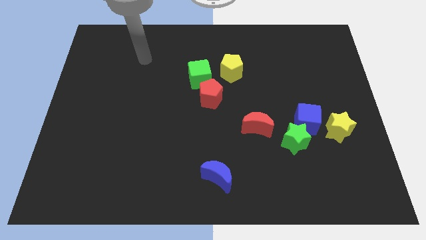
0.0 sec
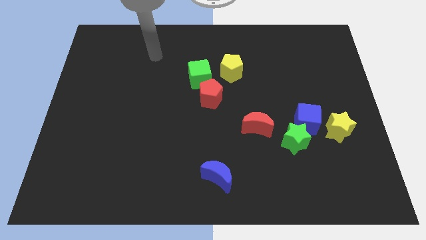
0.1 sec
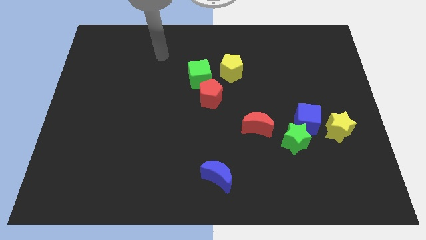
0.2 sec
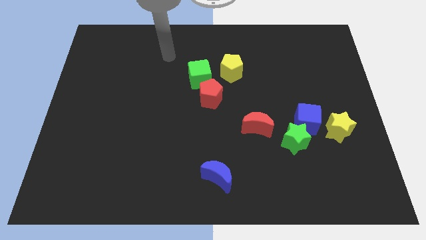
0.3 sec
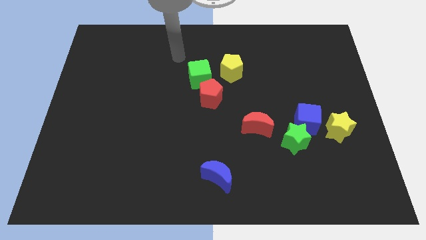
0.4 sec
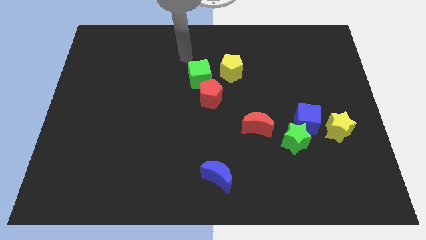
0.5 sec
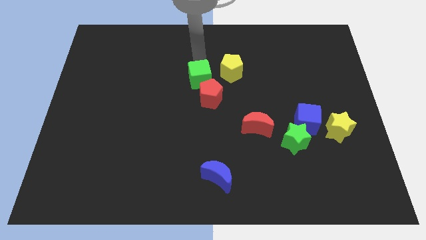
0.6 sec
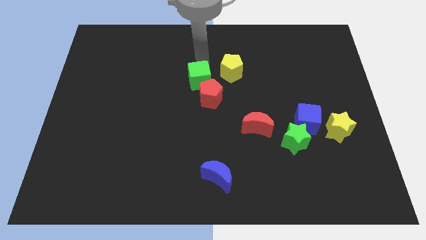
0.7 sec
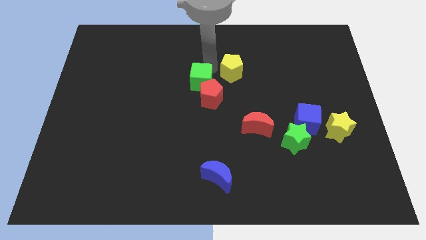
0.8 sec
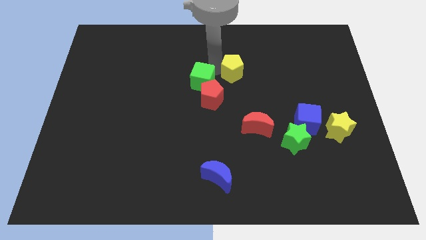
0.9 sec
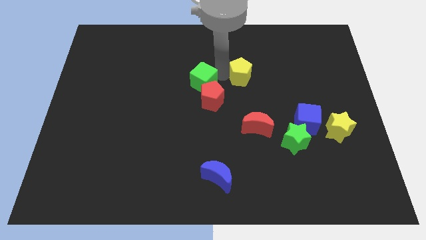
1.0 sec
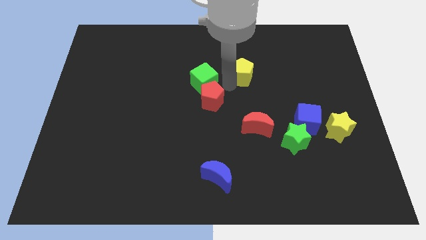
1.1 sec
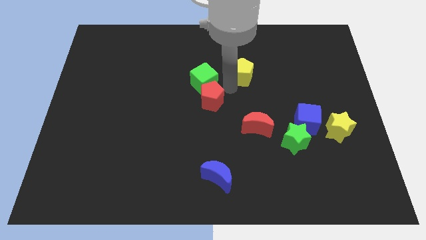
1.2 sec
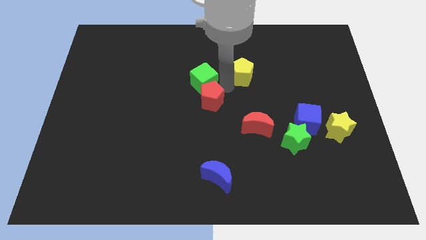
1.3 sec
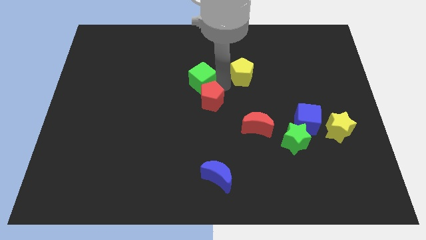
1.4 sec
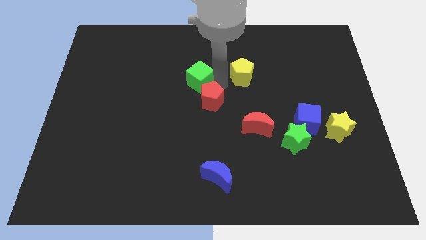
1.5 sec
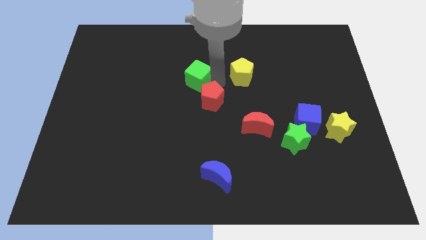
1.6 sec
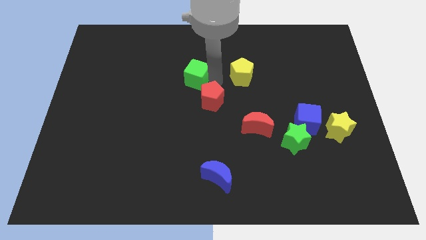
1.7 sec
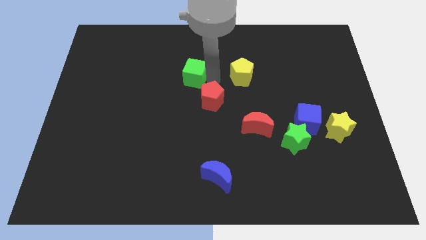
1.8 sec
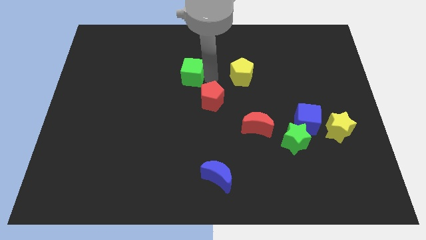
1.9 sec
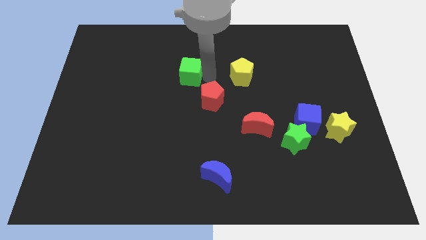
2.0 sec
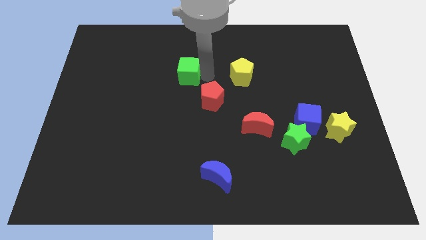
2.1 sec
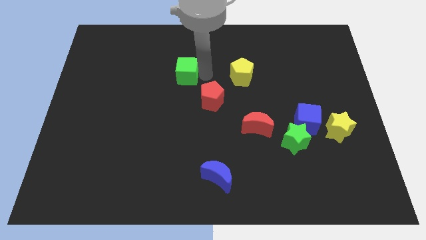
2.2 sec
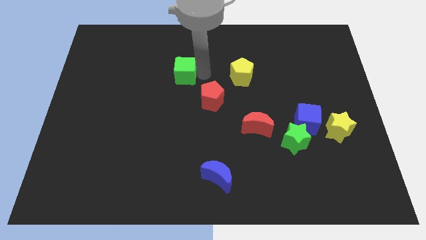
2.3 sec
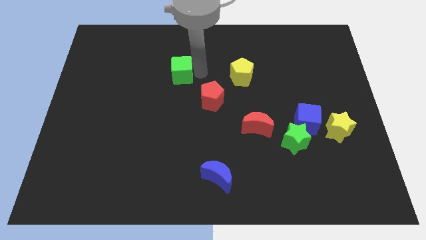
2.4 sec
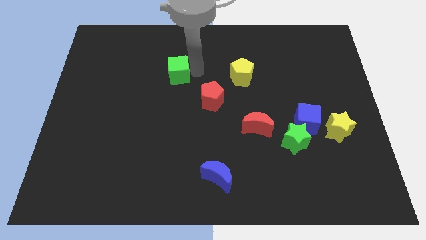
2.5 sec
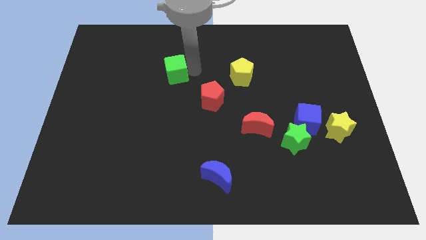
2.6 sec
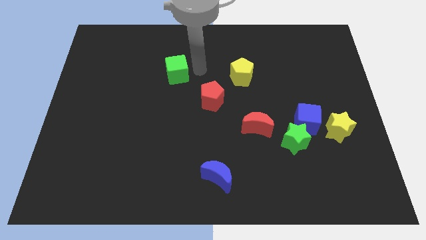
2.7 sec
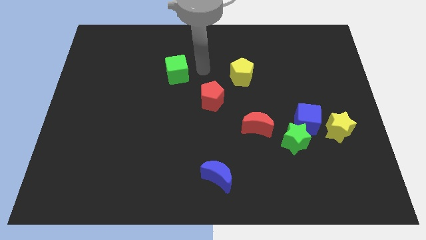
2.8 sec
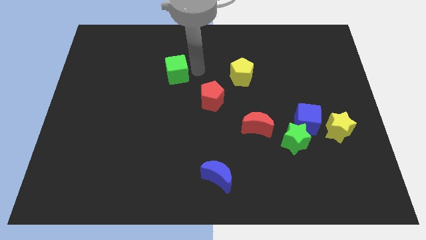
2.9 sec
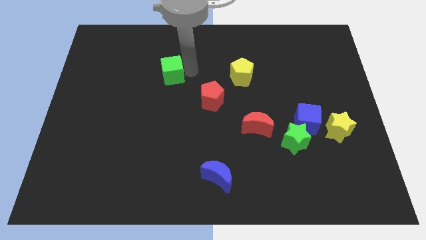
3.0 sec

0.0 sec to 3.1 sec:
push the green cube somewhat to the left

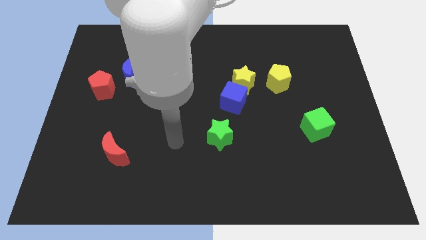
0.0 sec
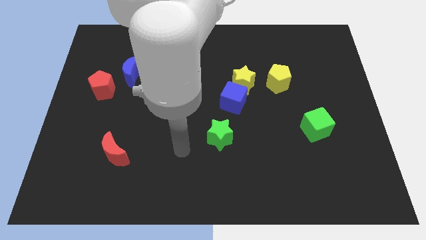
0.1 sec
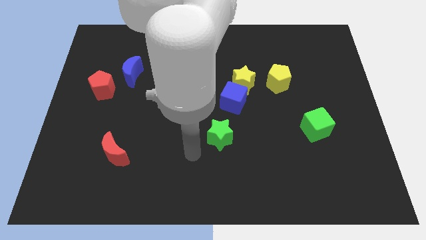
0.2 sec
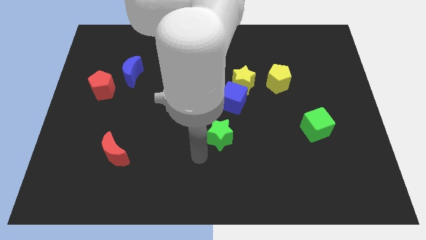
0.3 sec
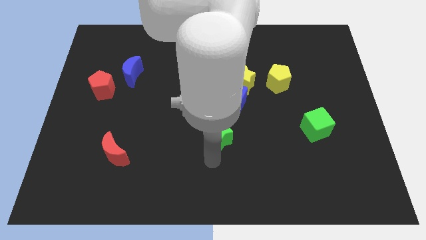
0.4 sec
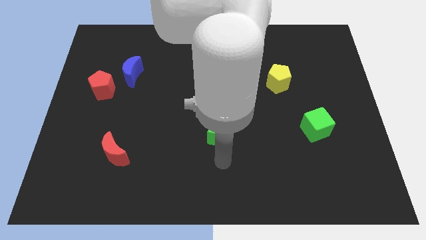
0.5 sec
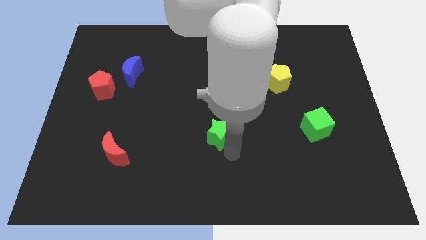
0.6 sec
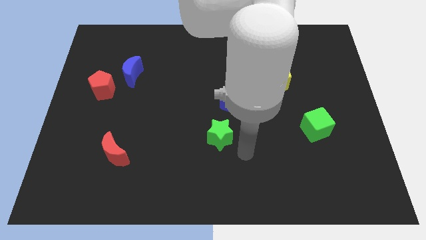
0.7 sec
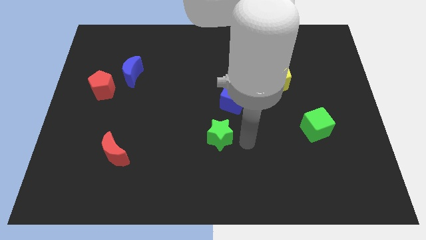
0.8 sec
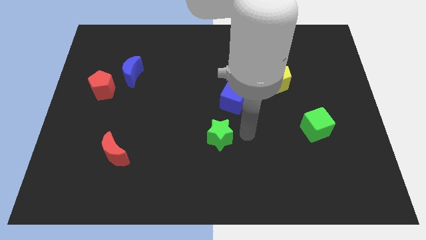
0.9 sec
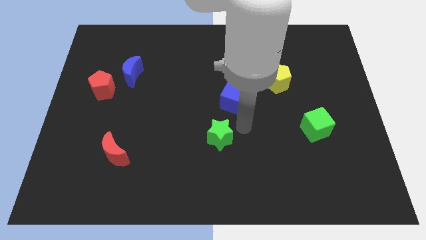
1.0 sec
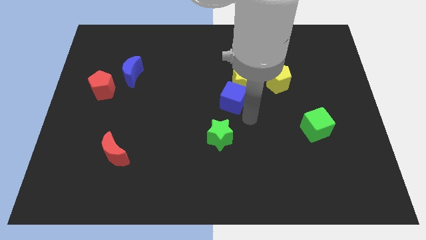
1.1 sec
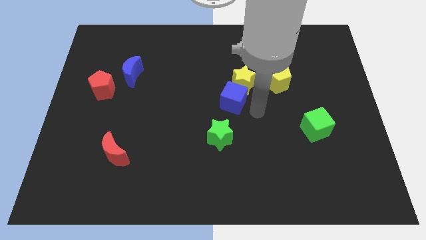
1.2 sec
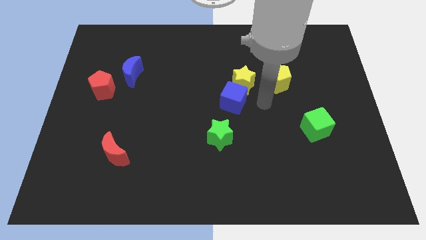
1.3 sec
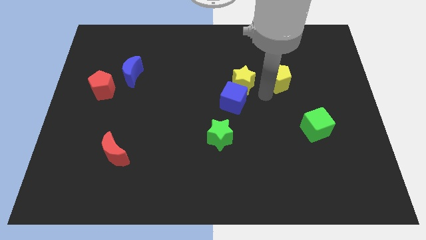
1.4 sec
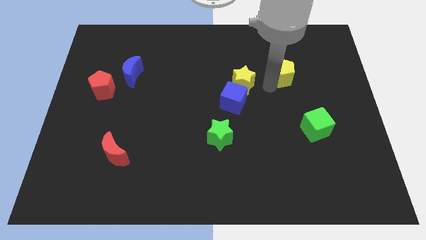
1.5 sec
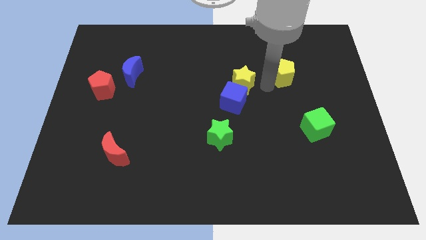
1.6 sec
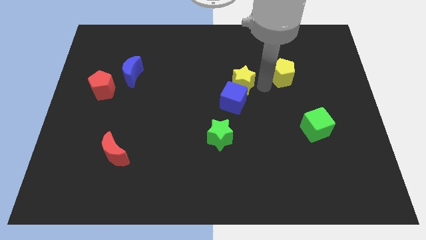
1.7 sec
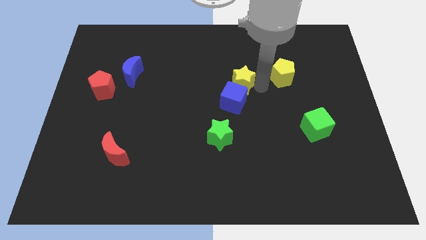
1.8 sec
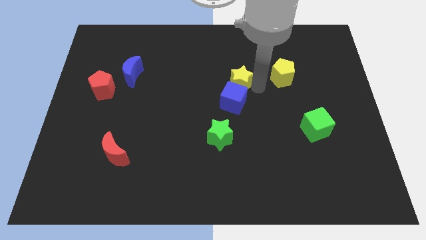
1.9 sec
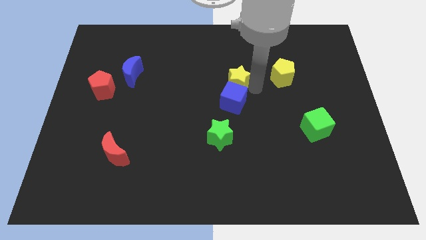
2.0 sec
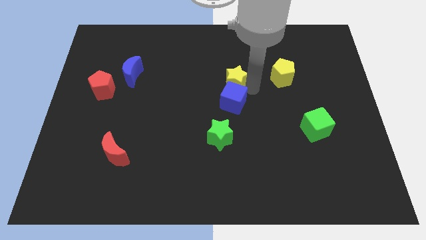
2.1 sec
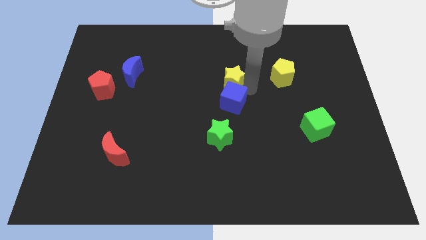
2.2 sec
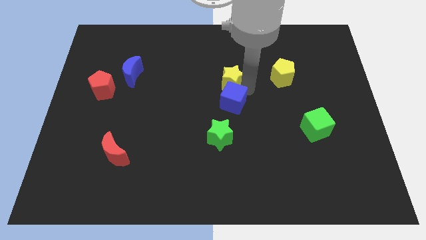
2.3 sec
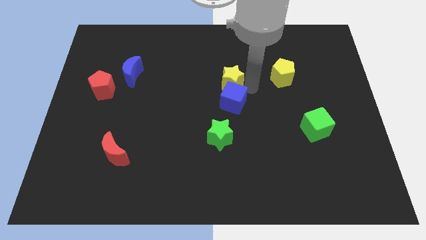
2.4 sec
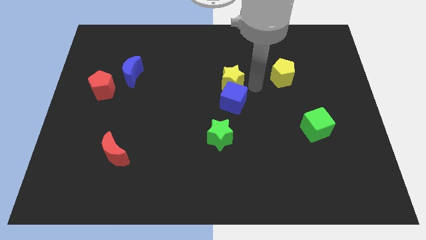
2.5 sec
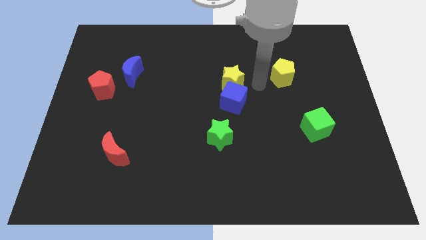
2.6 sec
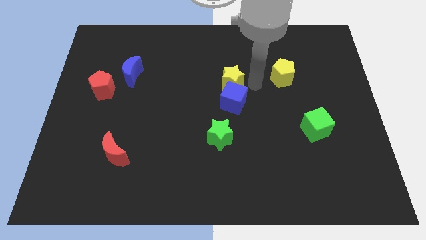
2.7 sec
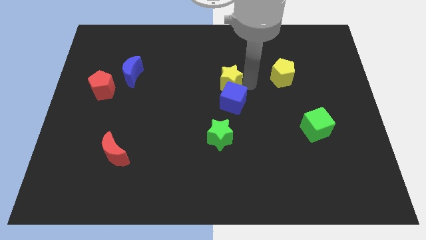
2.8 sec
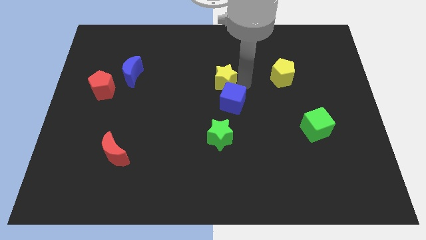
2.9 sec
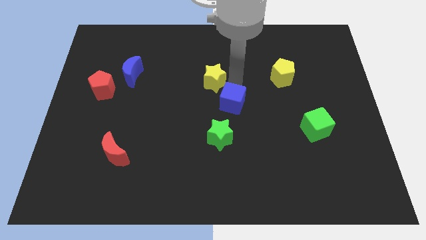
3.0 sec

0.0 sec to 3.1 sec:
slightly move the yellow star left

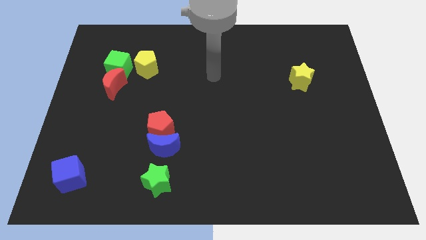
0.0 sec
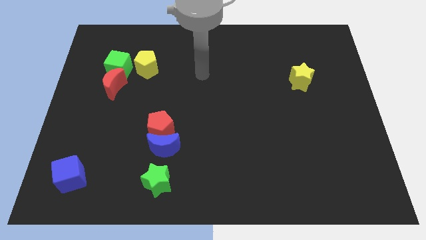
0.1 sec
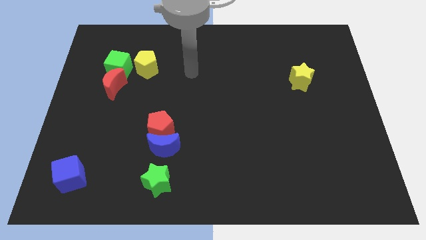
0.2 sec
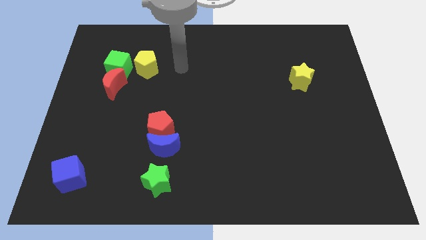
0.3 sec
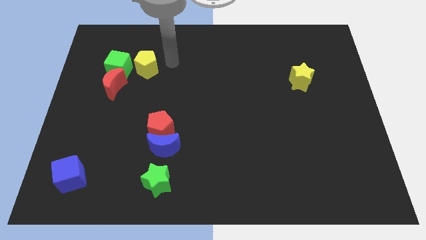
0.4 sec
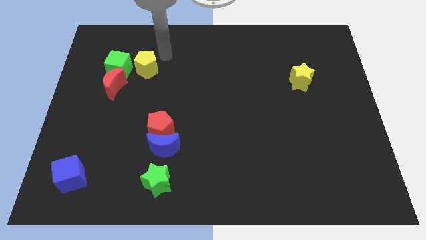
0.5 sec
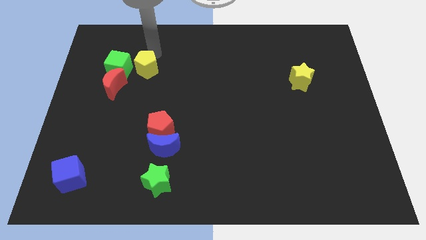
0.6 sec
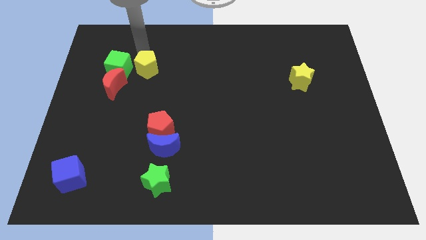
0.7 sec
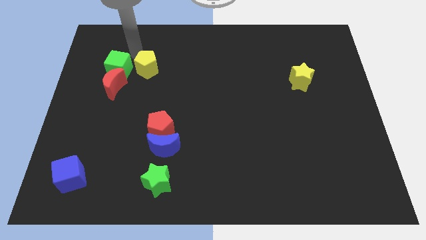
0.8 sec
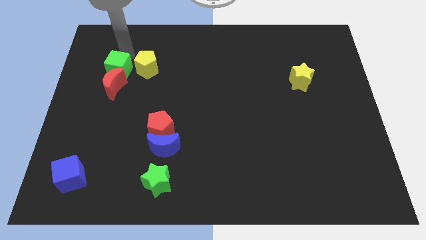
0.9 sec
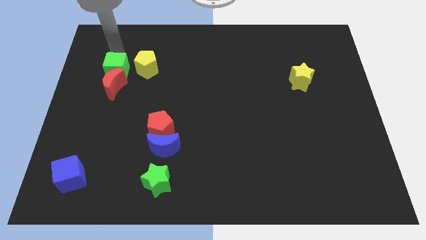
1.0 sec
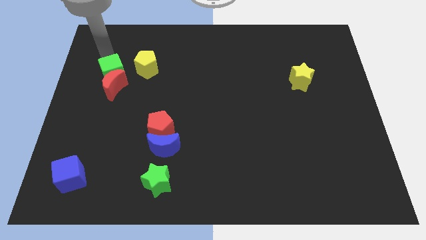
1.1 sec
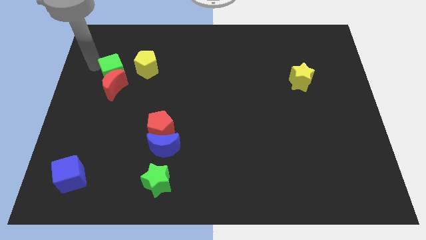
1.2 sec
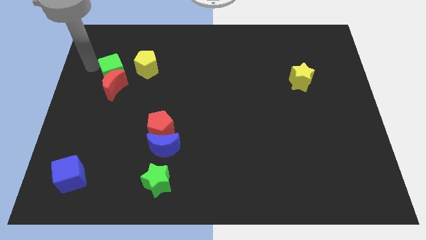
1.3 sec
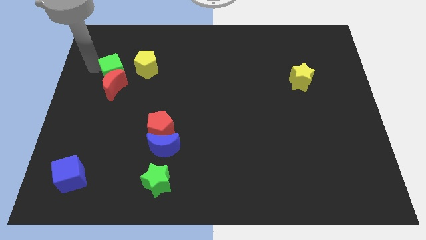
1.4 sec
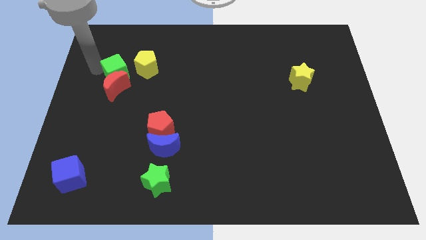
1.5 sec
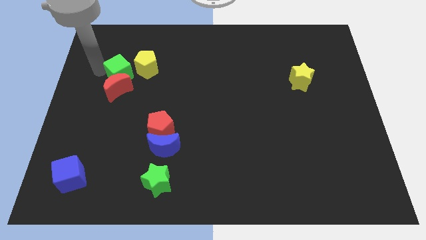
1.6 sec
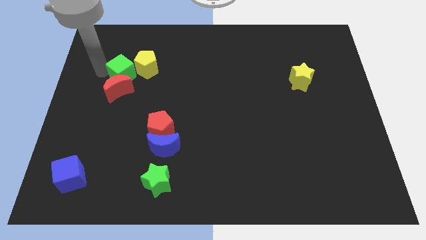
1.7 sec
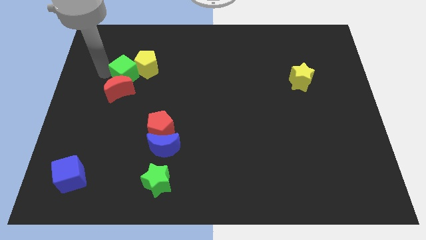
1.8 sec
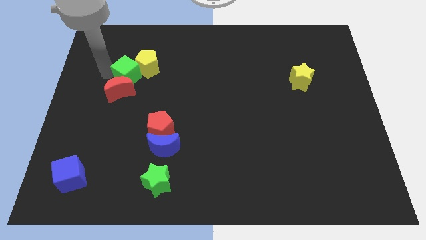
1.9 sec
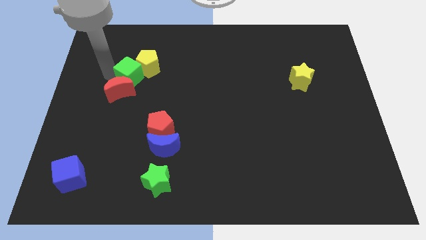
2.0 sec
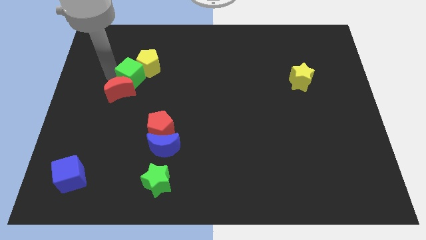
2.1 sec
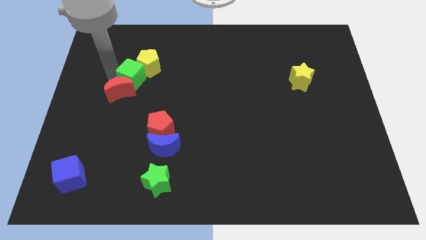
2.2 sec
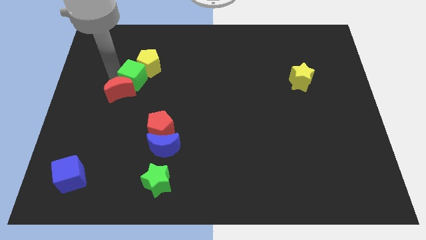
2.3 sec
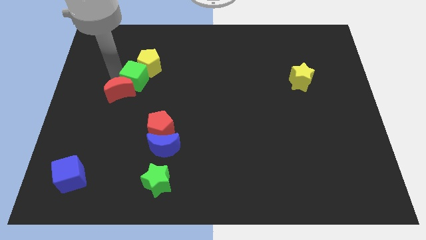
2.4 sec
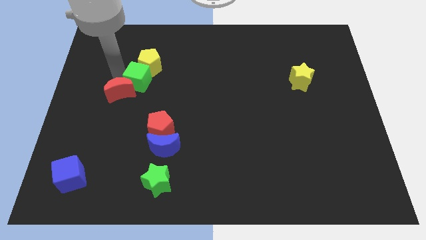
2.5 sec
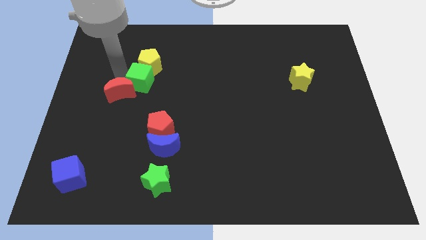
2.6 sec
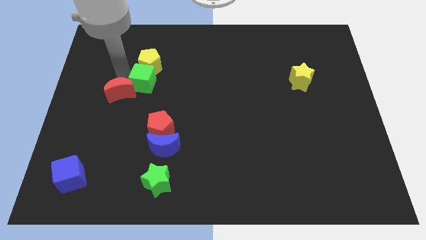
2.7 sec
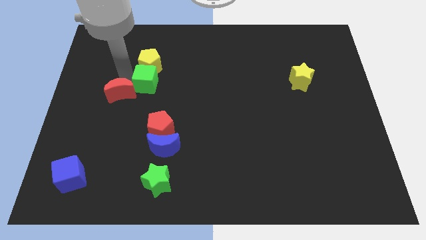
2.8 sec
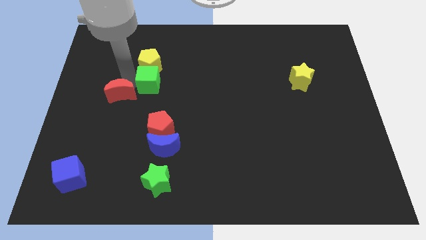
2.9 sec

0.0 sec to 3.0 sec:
slightly move the green cube right
